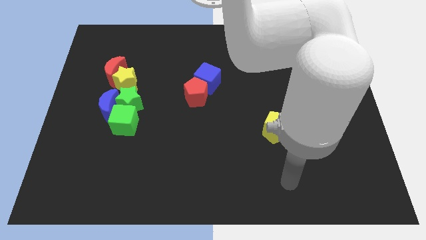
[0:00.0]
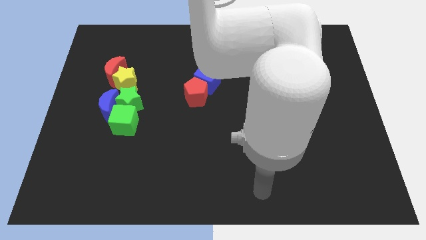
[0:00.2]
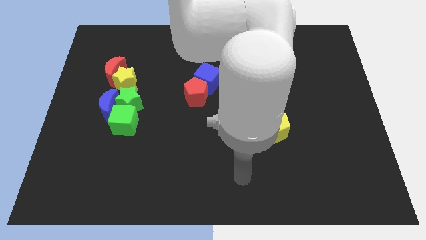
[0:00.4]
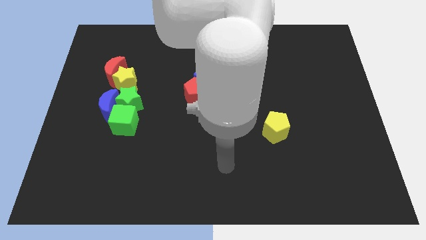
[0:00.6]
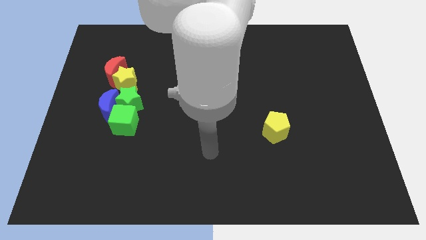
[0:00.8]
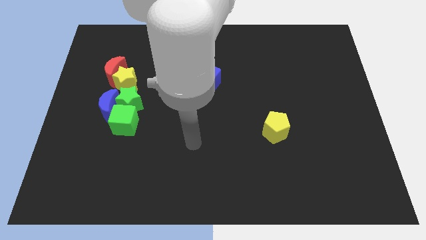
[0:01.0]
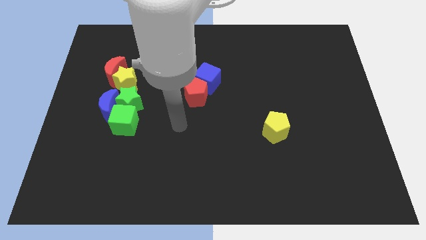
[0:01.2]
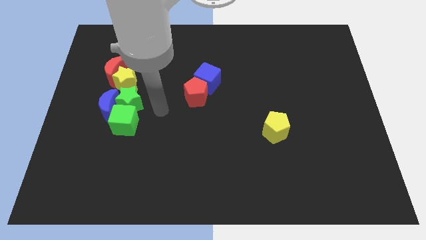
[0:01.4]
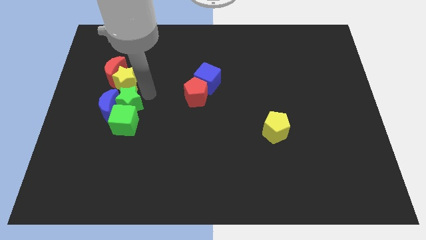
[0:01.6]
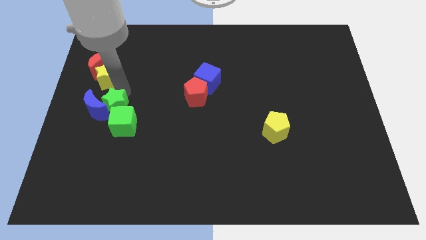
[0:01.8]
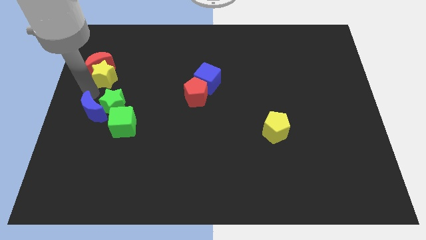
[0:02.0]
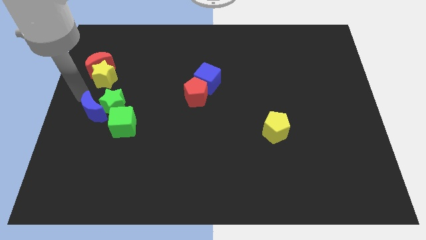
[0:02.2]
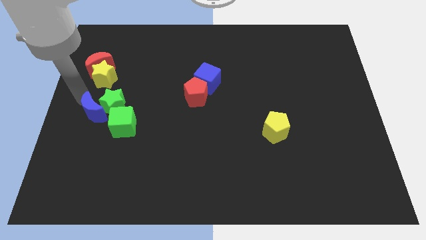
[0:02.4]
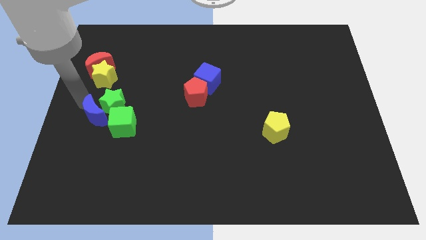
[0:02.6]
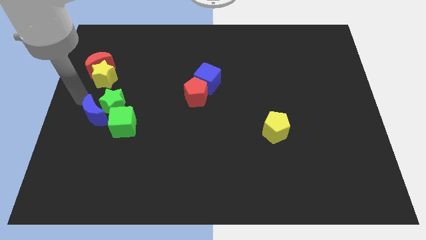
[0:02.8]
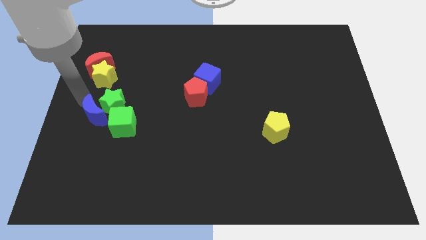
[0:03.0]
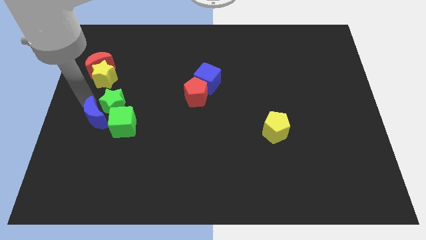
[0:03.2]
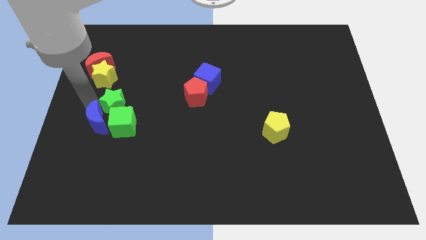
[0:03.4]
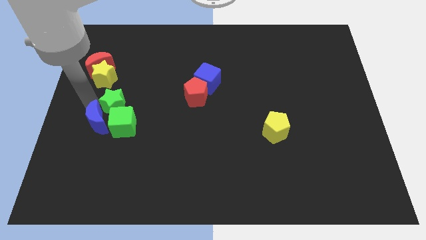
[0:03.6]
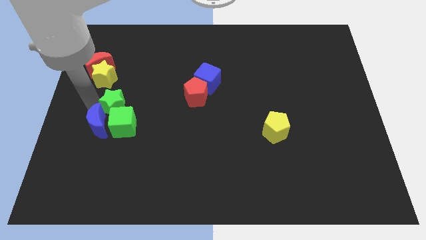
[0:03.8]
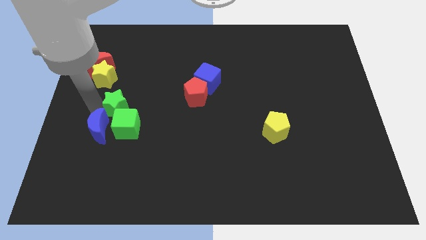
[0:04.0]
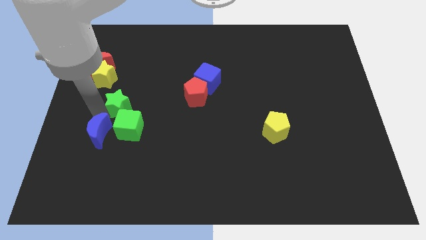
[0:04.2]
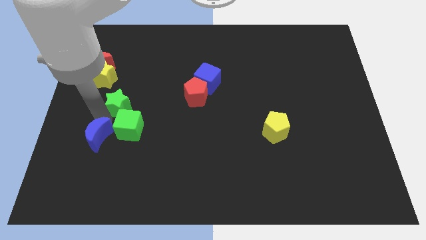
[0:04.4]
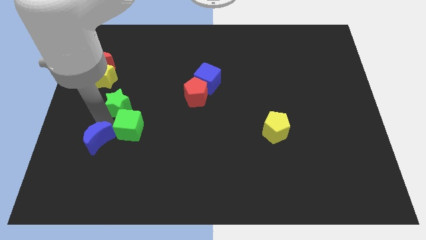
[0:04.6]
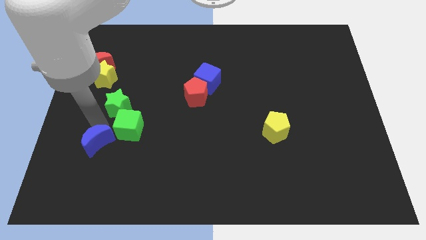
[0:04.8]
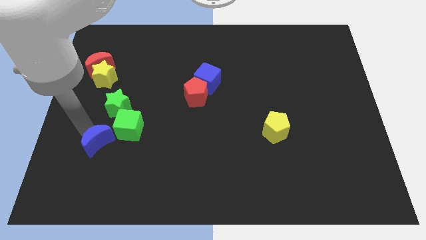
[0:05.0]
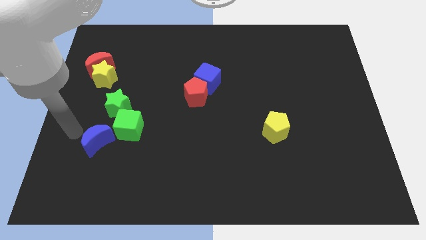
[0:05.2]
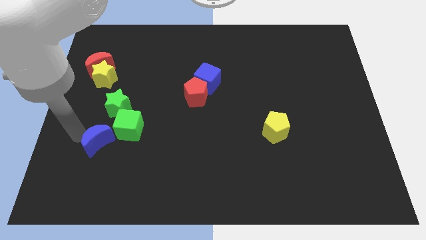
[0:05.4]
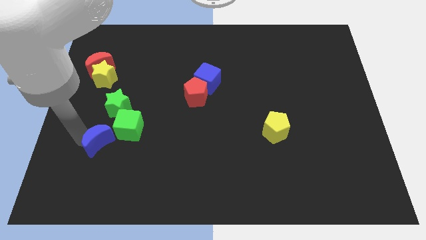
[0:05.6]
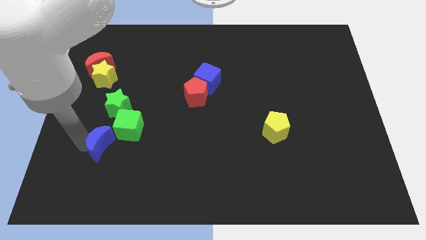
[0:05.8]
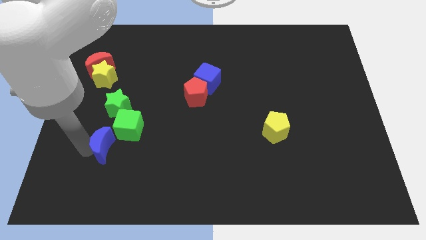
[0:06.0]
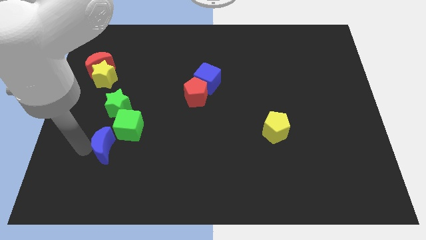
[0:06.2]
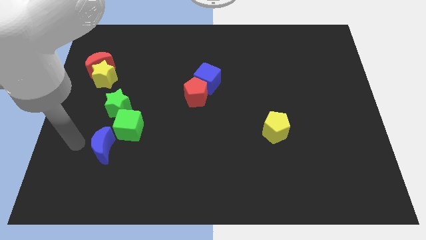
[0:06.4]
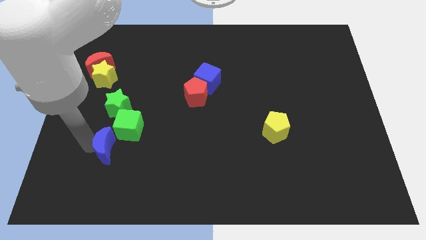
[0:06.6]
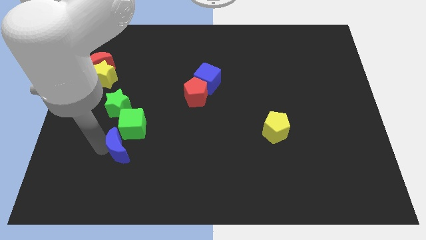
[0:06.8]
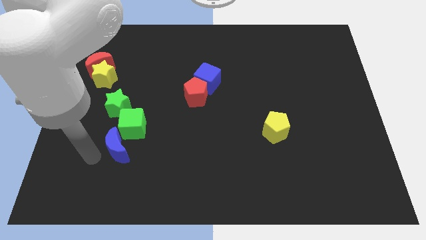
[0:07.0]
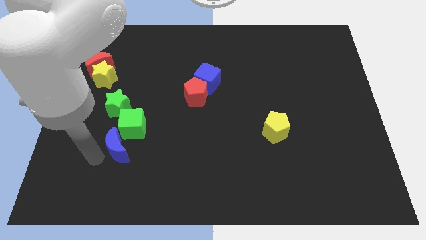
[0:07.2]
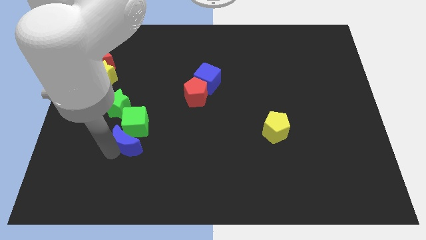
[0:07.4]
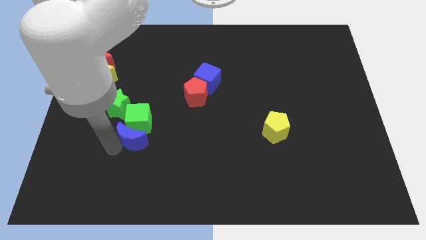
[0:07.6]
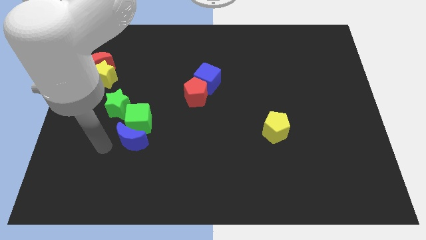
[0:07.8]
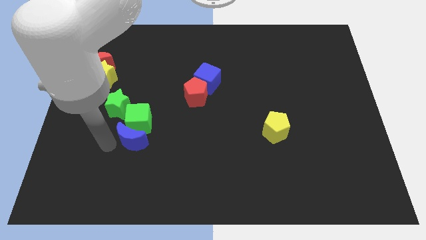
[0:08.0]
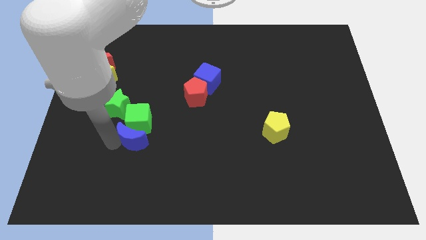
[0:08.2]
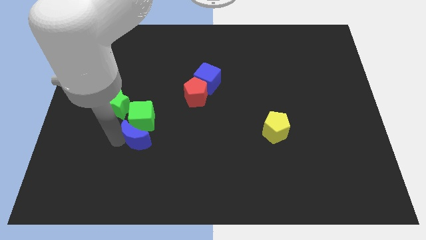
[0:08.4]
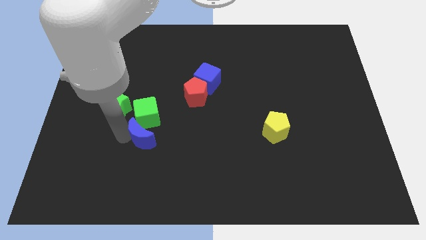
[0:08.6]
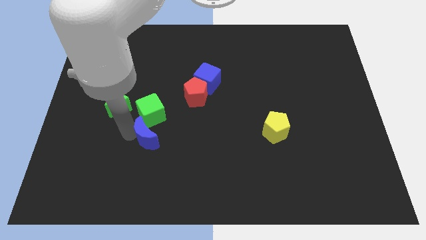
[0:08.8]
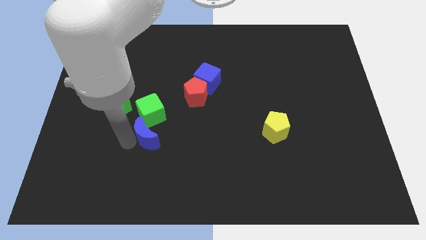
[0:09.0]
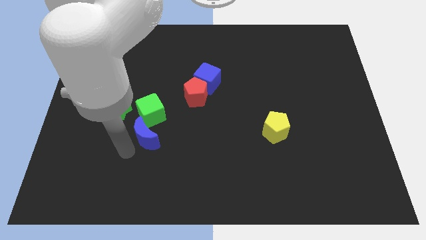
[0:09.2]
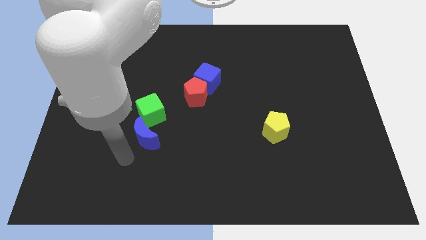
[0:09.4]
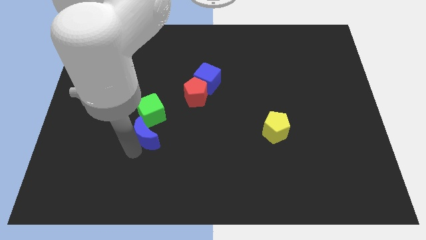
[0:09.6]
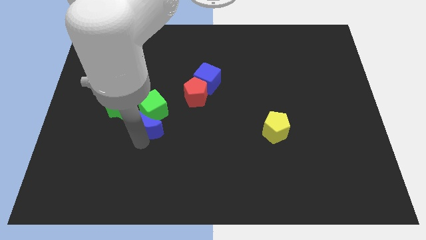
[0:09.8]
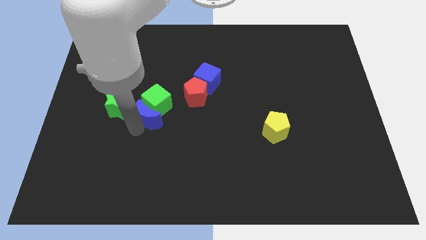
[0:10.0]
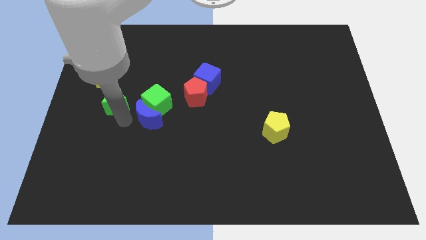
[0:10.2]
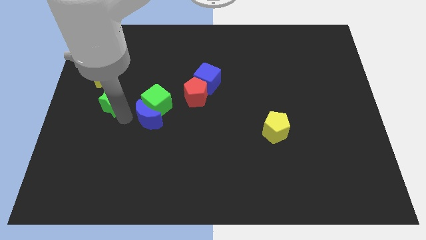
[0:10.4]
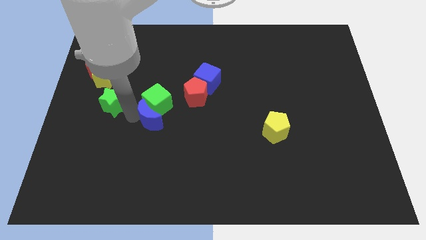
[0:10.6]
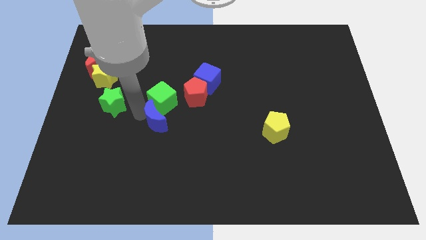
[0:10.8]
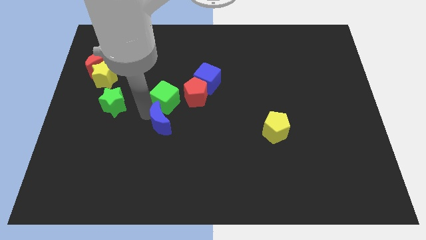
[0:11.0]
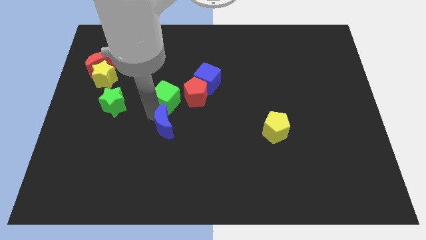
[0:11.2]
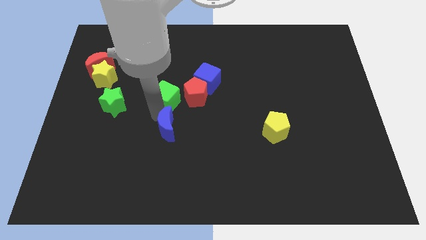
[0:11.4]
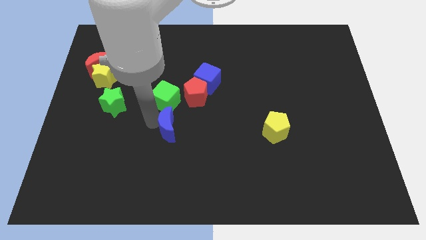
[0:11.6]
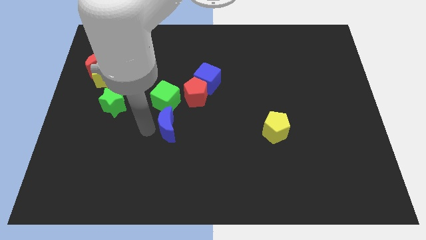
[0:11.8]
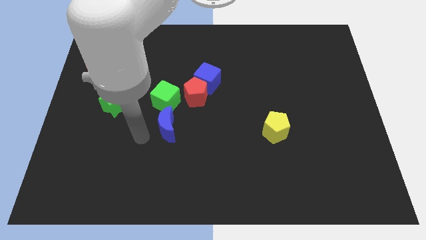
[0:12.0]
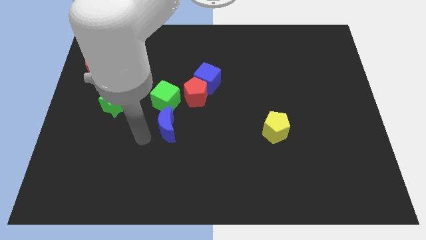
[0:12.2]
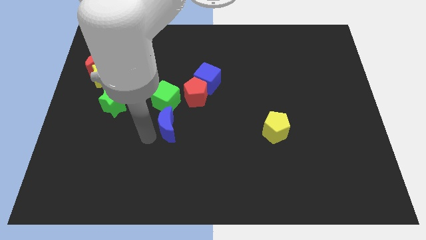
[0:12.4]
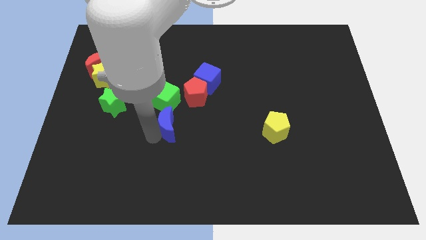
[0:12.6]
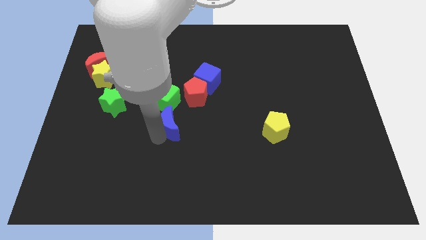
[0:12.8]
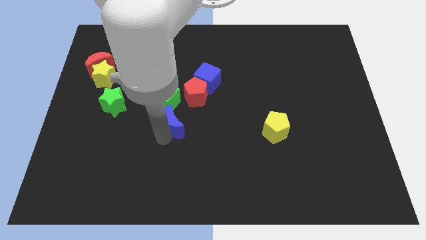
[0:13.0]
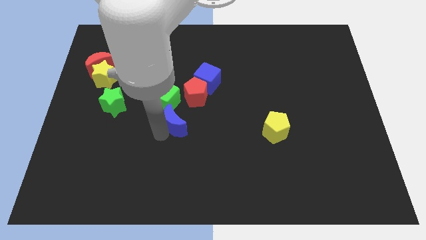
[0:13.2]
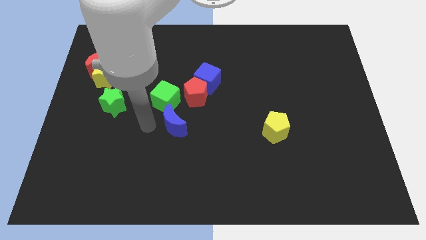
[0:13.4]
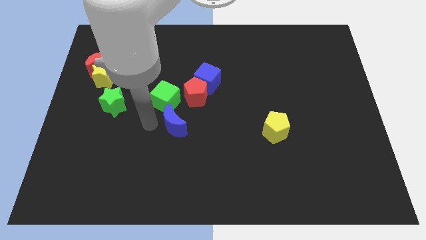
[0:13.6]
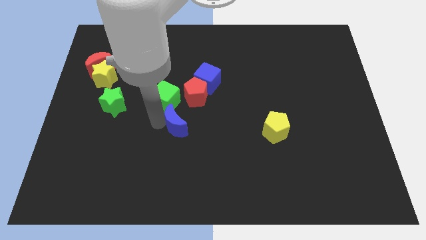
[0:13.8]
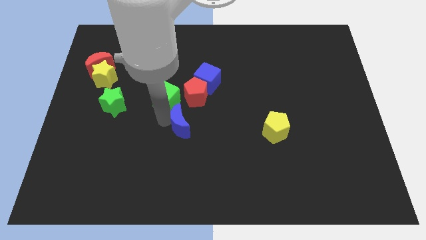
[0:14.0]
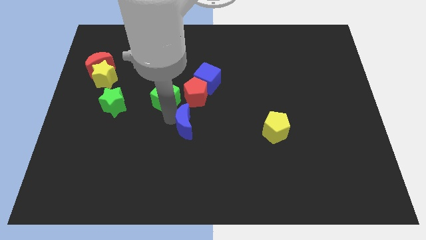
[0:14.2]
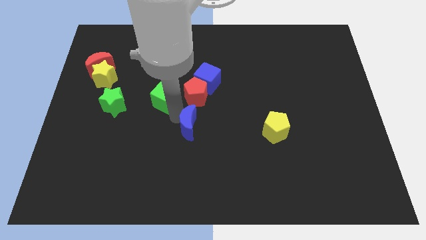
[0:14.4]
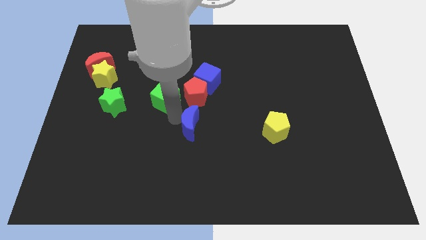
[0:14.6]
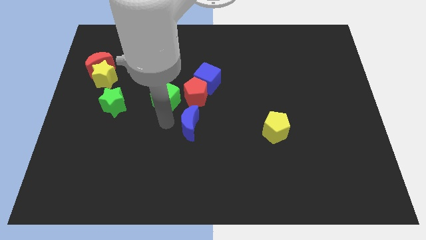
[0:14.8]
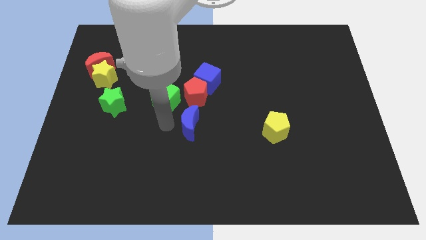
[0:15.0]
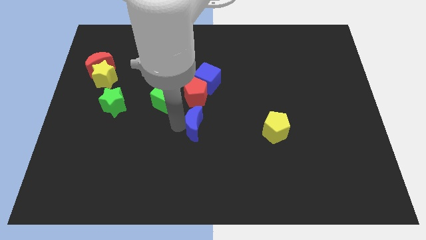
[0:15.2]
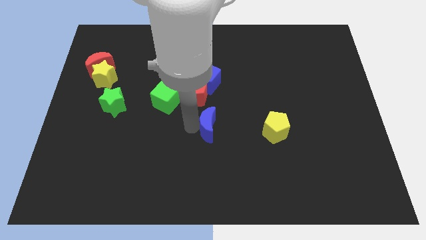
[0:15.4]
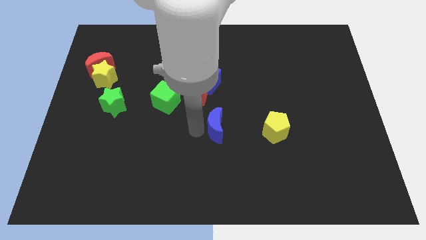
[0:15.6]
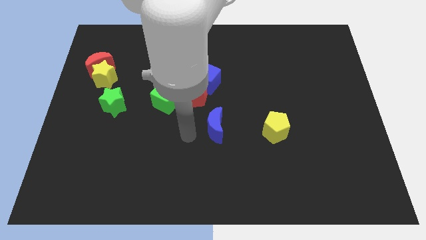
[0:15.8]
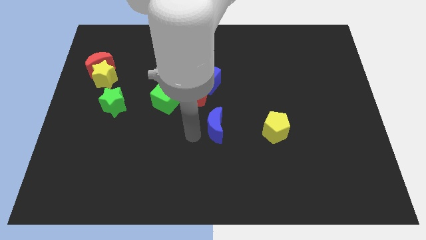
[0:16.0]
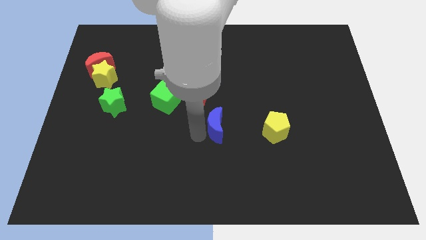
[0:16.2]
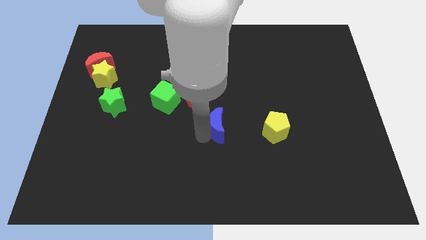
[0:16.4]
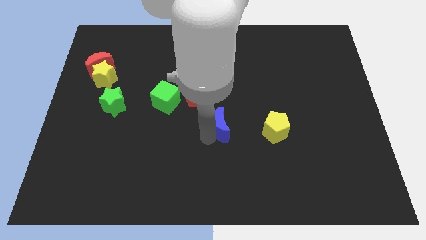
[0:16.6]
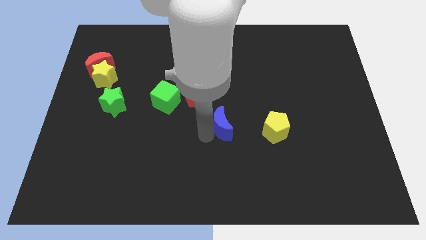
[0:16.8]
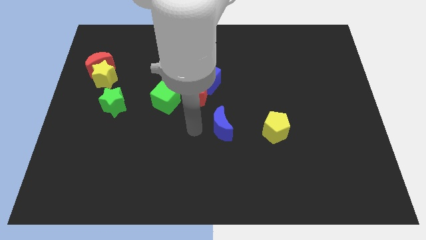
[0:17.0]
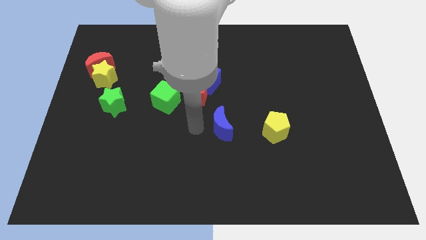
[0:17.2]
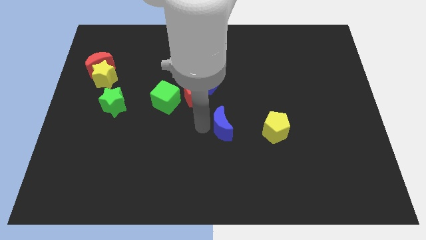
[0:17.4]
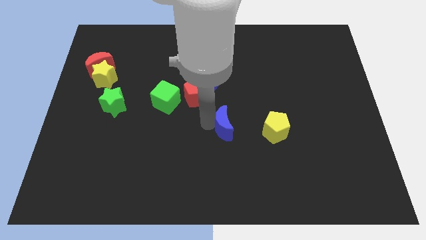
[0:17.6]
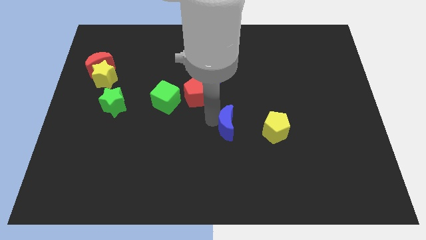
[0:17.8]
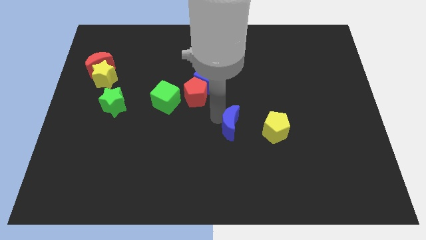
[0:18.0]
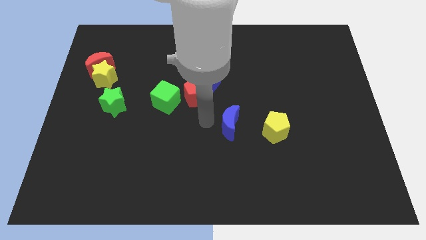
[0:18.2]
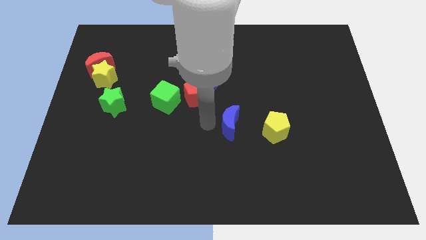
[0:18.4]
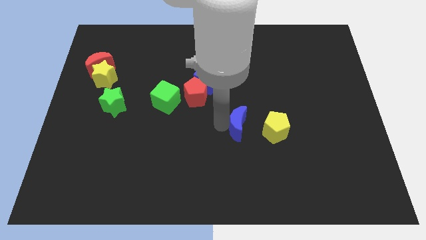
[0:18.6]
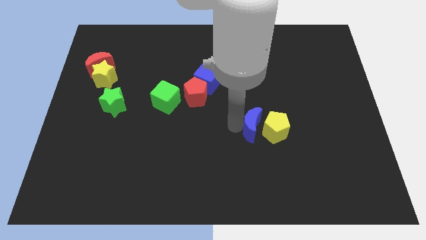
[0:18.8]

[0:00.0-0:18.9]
put the blue moon to the yellow pentagon
